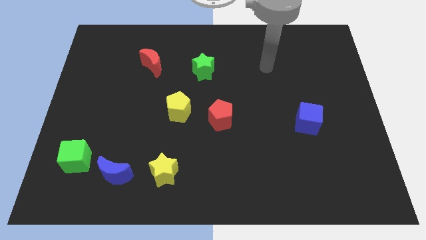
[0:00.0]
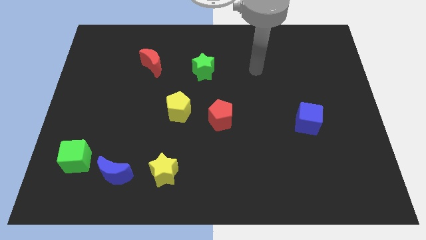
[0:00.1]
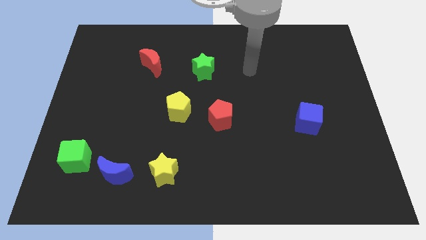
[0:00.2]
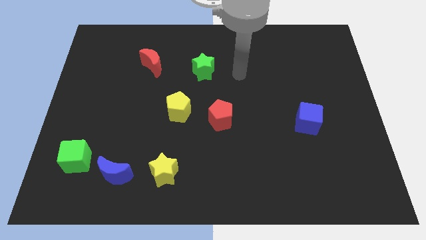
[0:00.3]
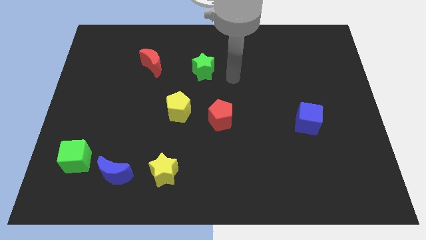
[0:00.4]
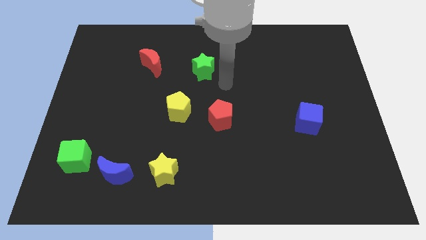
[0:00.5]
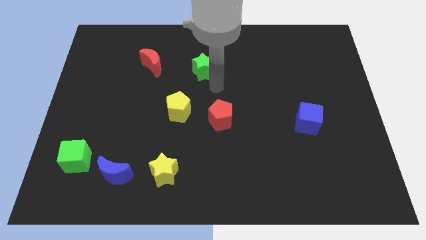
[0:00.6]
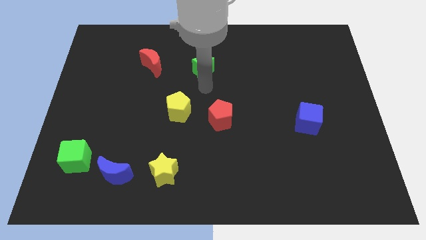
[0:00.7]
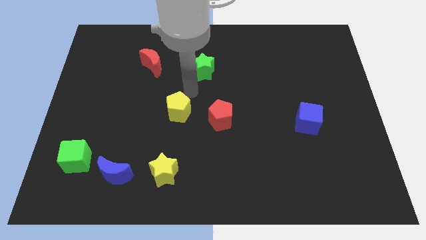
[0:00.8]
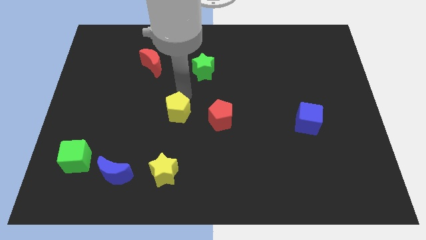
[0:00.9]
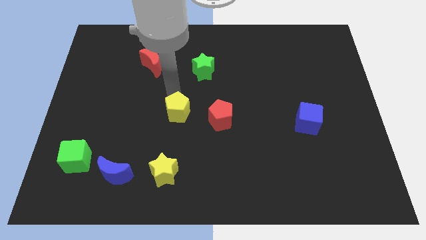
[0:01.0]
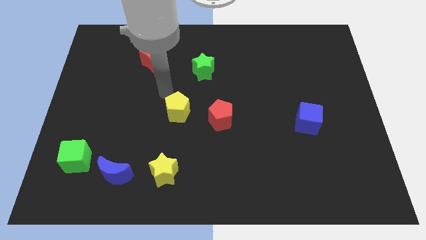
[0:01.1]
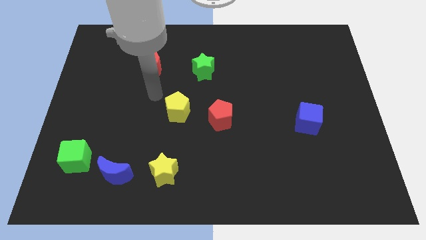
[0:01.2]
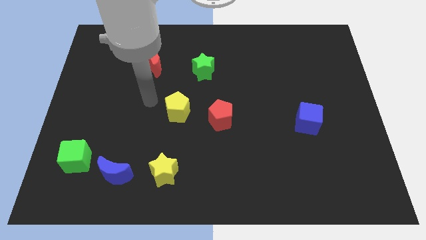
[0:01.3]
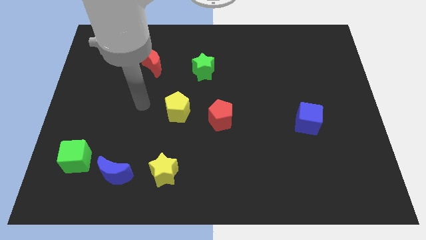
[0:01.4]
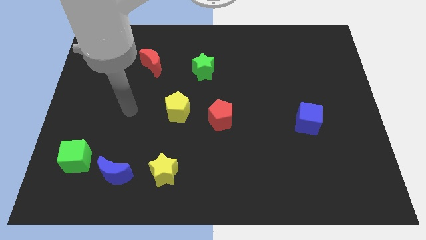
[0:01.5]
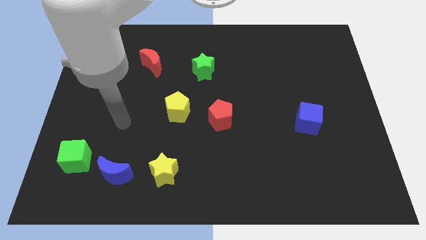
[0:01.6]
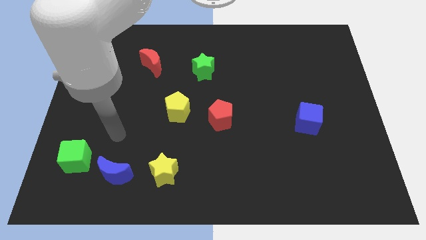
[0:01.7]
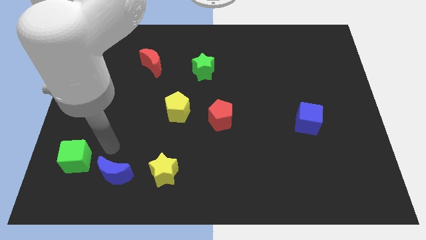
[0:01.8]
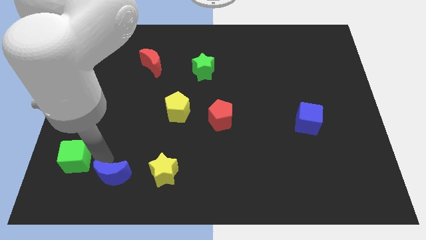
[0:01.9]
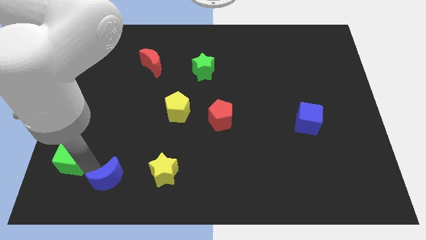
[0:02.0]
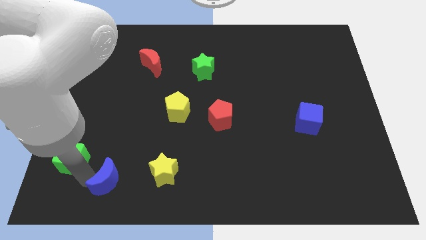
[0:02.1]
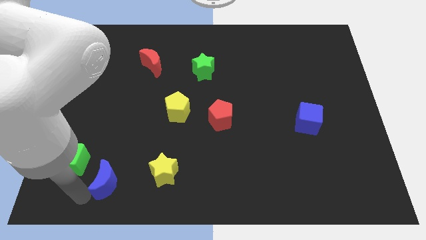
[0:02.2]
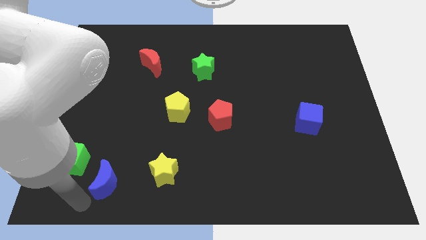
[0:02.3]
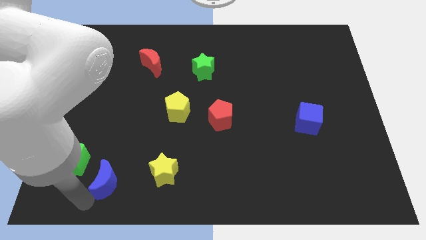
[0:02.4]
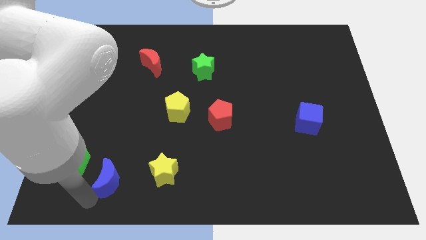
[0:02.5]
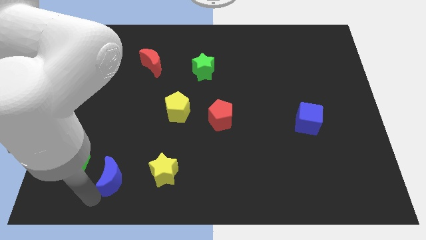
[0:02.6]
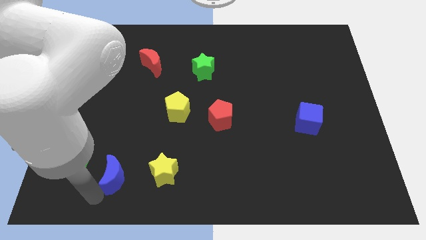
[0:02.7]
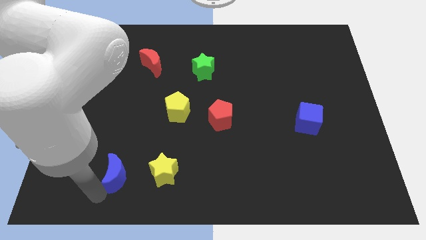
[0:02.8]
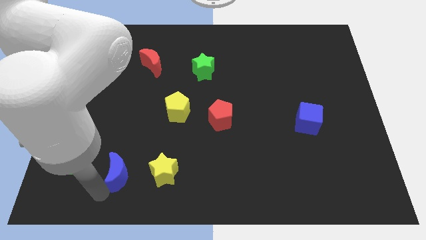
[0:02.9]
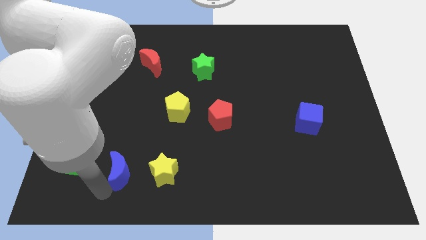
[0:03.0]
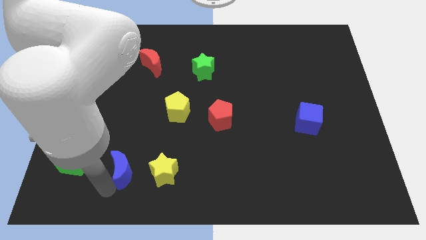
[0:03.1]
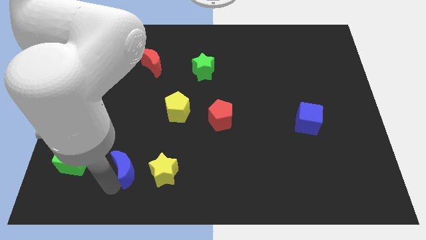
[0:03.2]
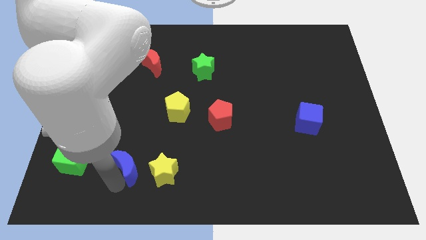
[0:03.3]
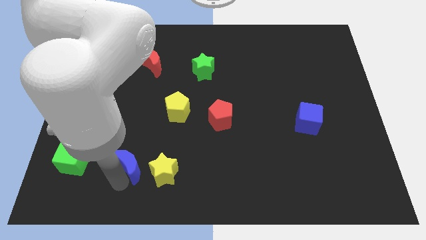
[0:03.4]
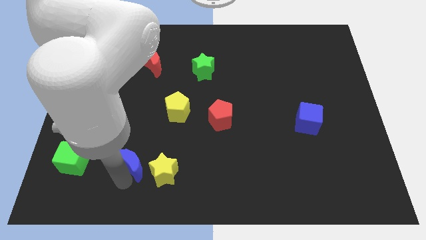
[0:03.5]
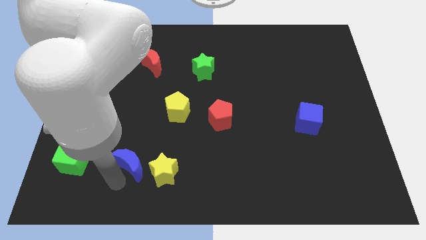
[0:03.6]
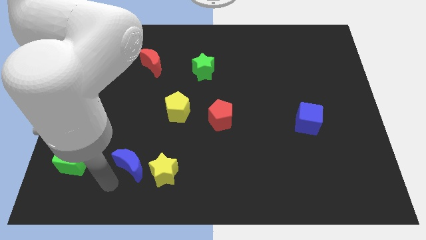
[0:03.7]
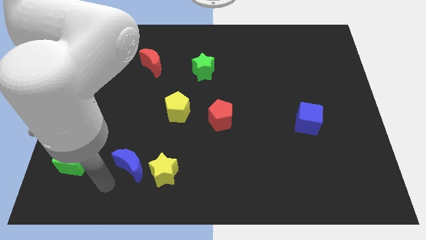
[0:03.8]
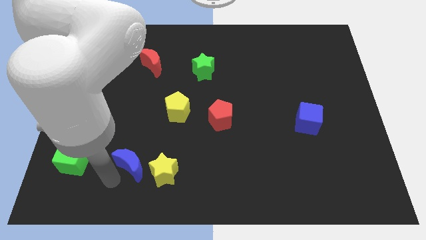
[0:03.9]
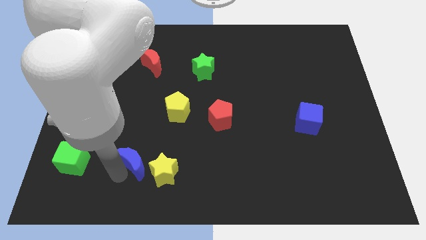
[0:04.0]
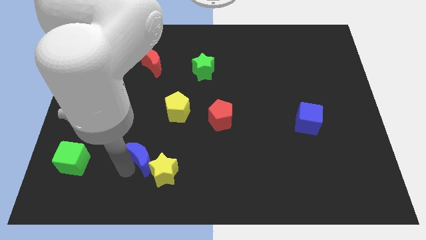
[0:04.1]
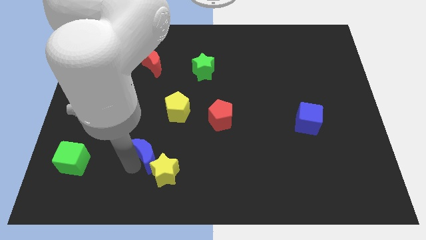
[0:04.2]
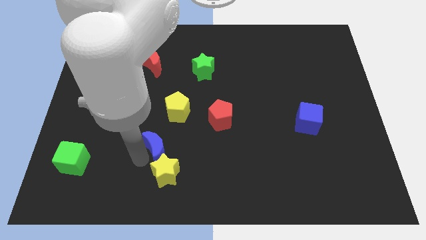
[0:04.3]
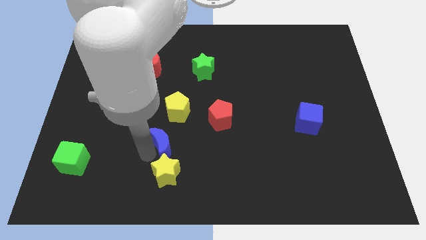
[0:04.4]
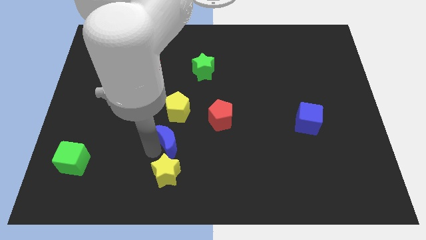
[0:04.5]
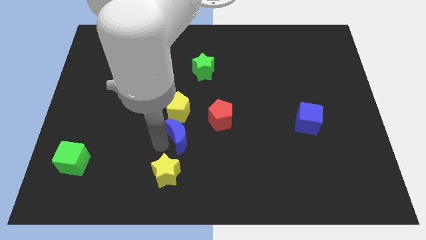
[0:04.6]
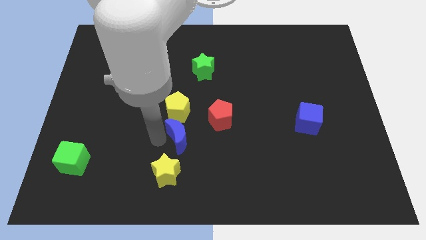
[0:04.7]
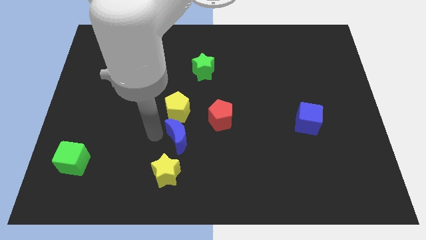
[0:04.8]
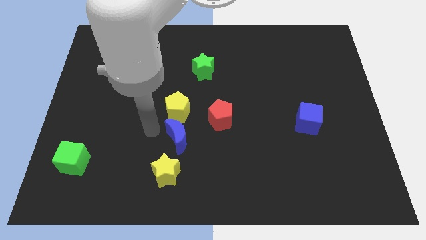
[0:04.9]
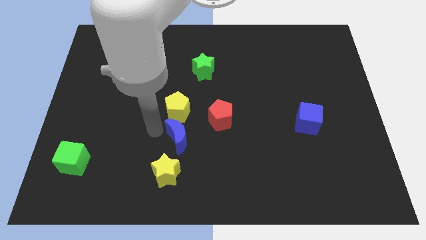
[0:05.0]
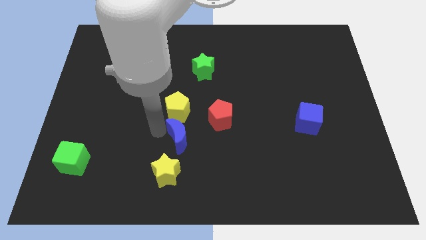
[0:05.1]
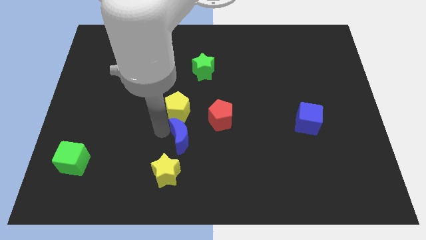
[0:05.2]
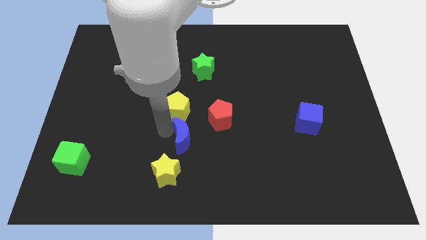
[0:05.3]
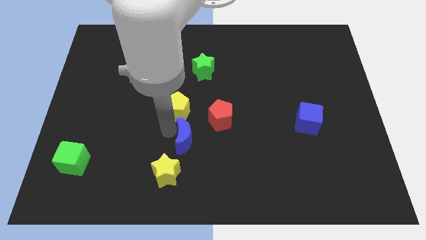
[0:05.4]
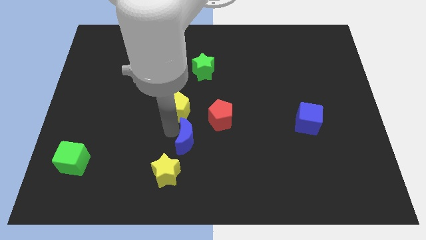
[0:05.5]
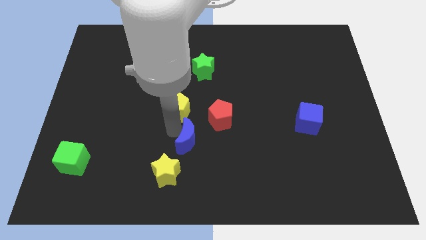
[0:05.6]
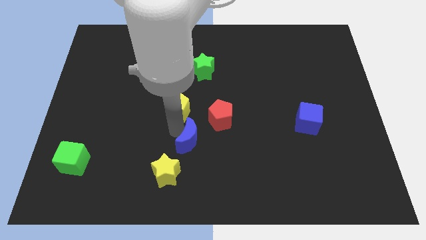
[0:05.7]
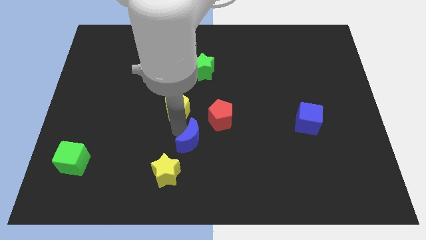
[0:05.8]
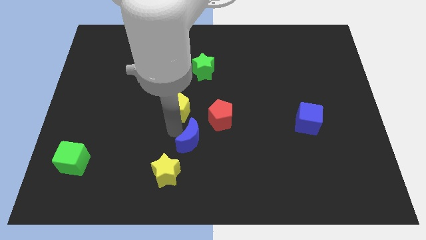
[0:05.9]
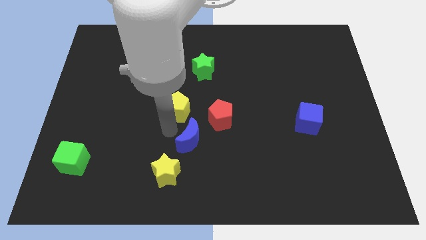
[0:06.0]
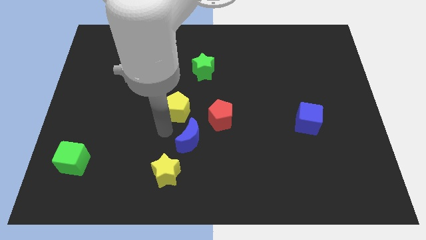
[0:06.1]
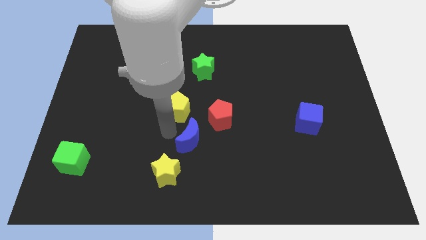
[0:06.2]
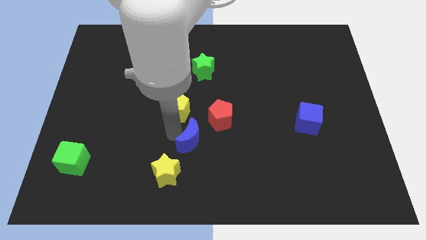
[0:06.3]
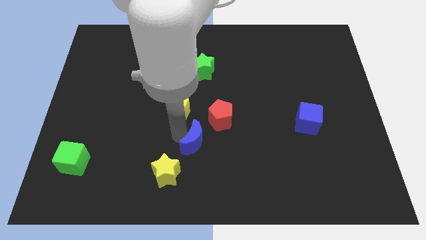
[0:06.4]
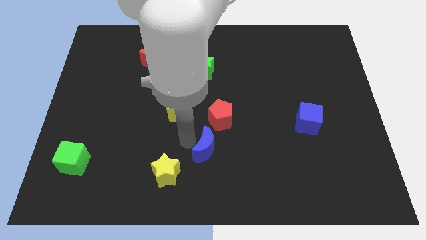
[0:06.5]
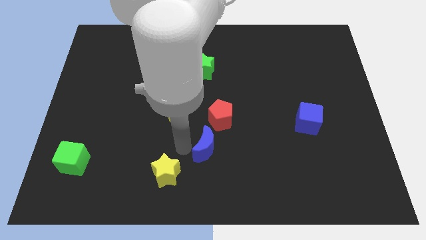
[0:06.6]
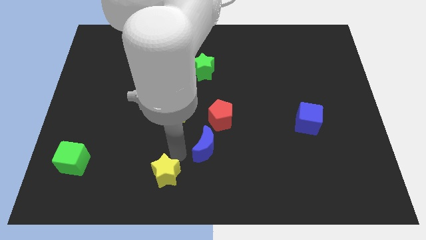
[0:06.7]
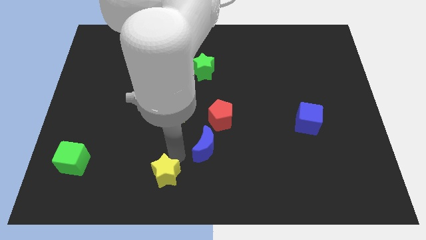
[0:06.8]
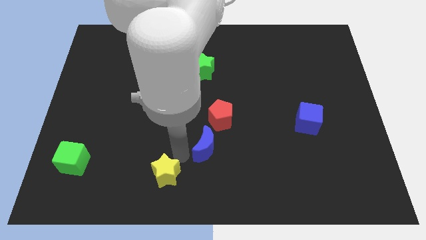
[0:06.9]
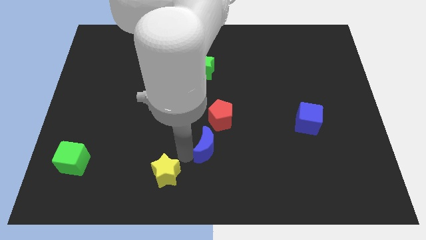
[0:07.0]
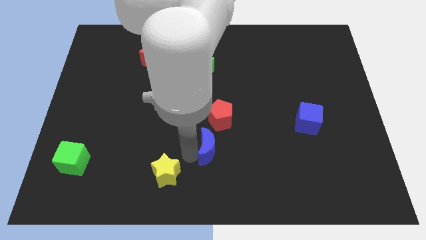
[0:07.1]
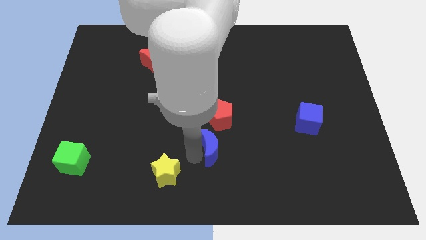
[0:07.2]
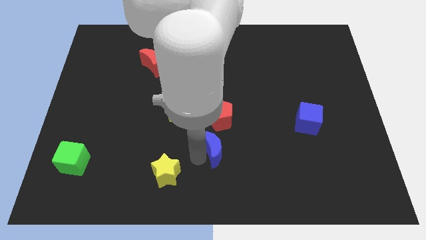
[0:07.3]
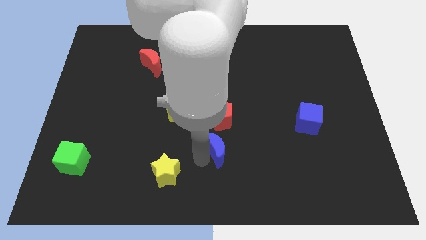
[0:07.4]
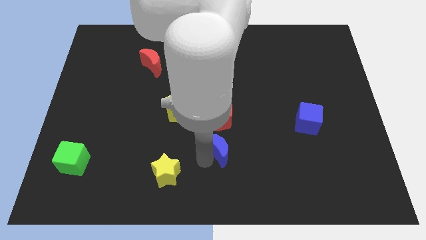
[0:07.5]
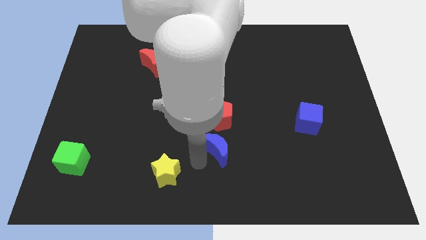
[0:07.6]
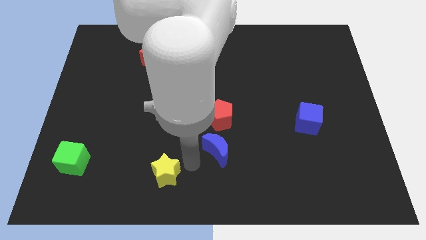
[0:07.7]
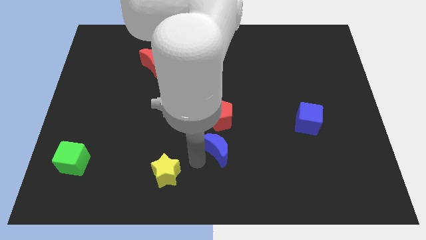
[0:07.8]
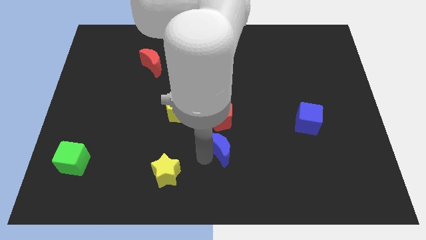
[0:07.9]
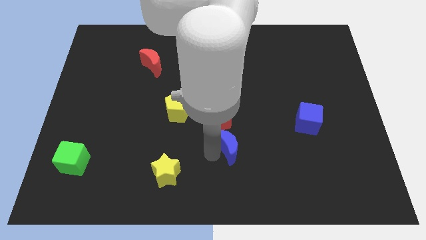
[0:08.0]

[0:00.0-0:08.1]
put the blue moon to the bottom right side of the red pentagon
